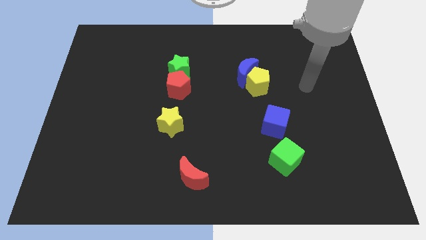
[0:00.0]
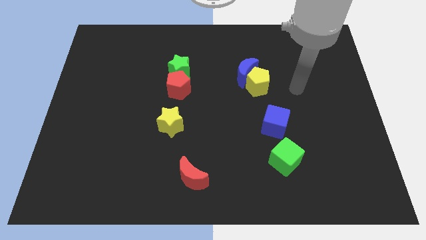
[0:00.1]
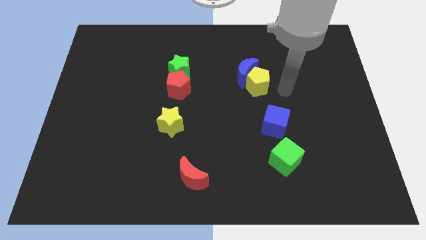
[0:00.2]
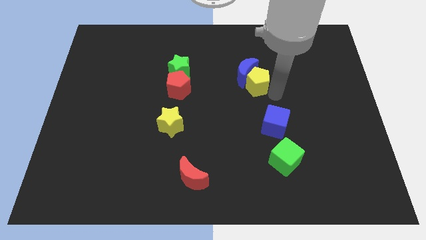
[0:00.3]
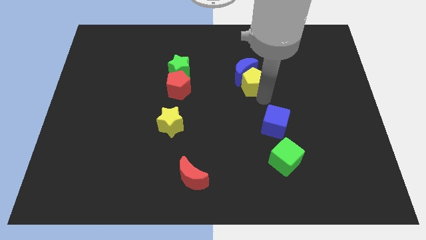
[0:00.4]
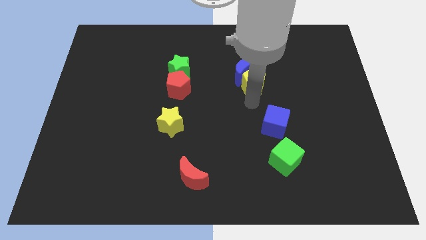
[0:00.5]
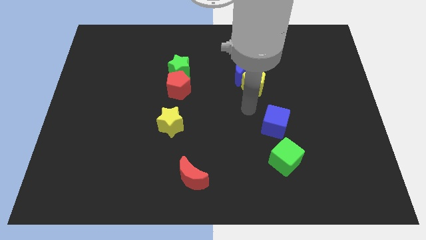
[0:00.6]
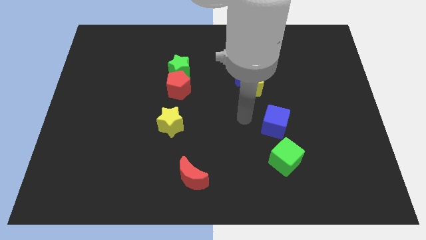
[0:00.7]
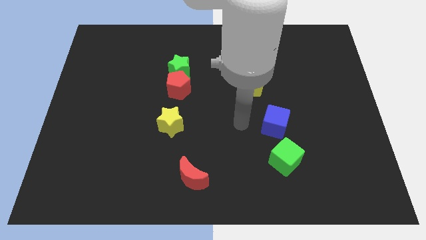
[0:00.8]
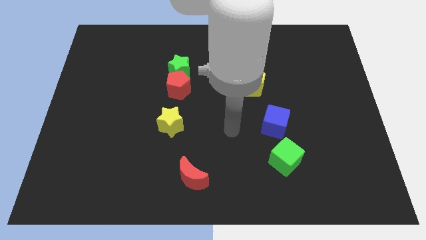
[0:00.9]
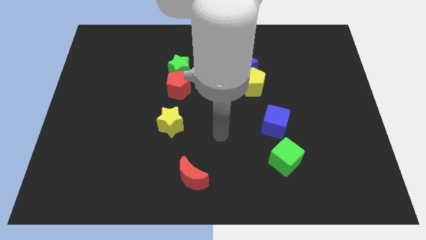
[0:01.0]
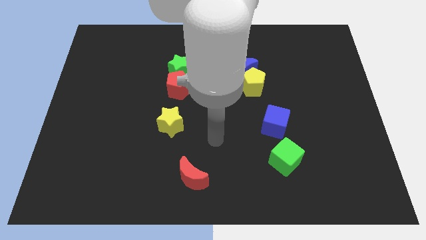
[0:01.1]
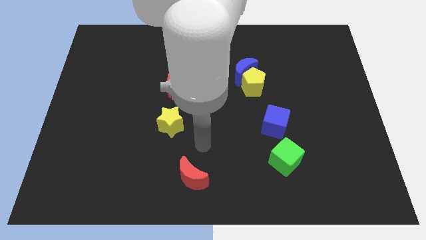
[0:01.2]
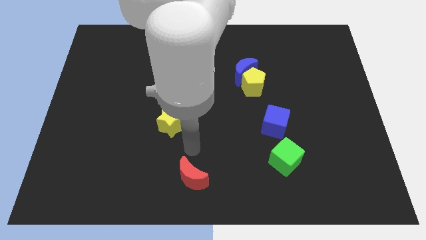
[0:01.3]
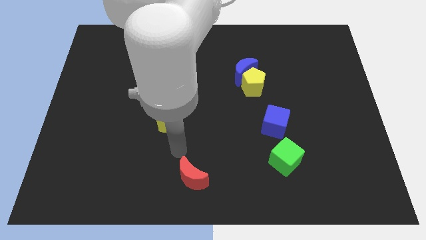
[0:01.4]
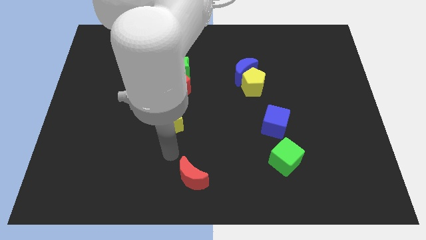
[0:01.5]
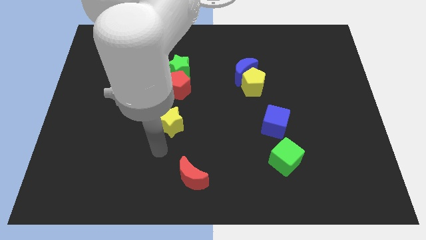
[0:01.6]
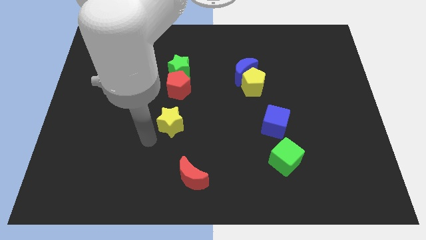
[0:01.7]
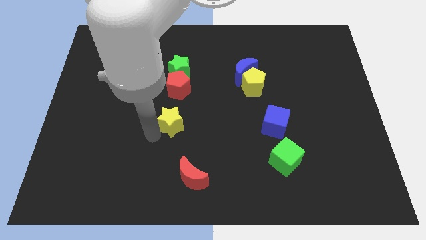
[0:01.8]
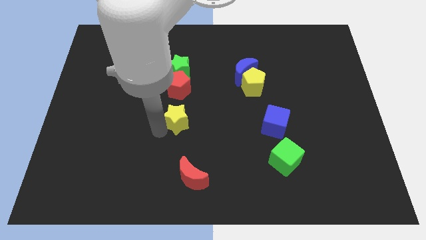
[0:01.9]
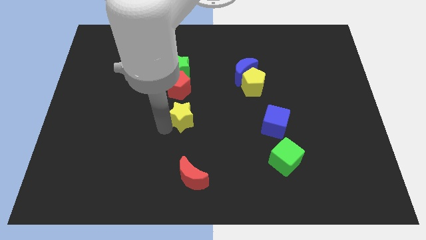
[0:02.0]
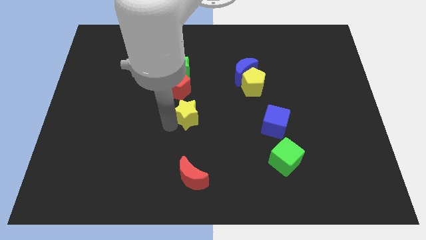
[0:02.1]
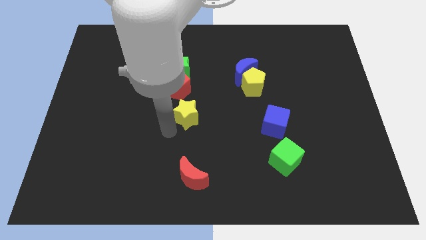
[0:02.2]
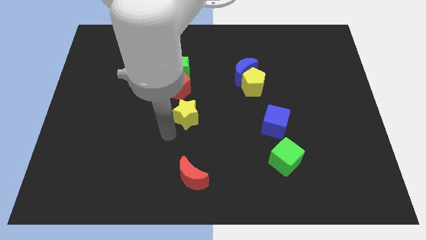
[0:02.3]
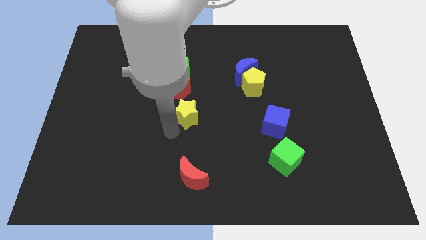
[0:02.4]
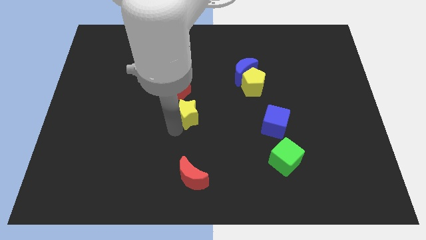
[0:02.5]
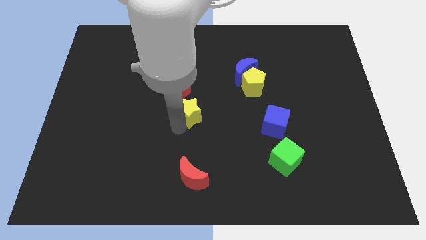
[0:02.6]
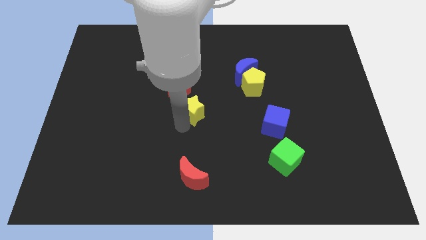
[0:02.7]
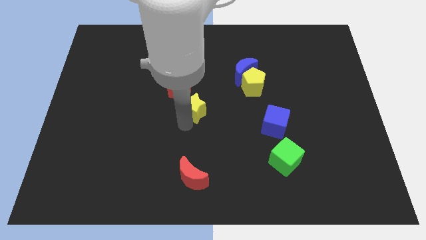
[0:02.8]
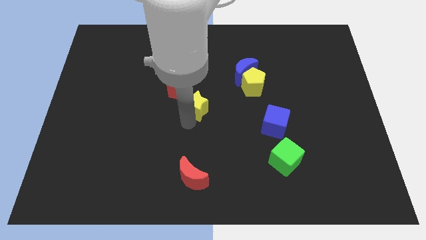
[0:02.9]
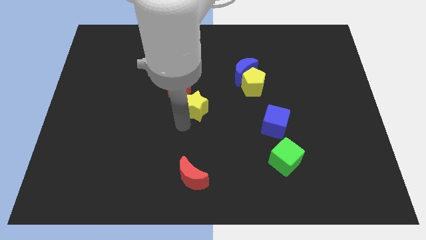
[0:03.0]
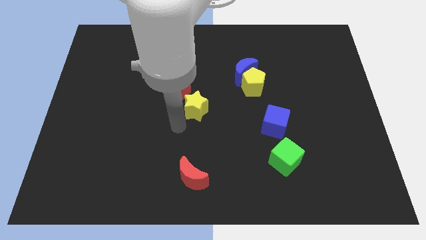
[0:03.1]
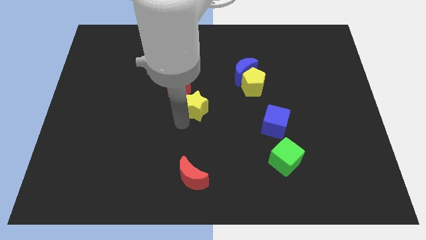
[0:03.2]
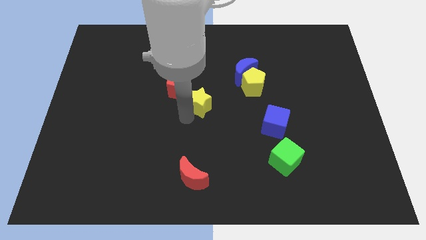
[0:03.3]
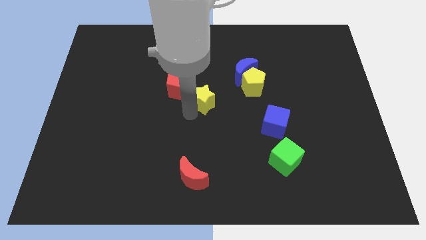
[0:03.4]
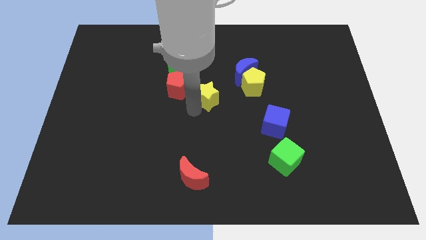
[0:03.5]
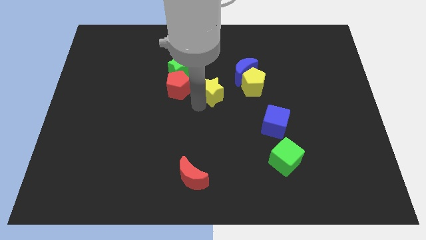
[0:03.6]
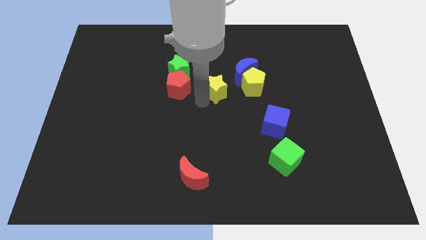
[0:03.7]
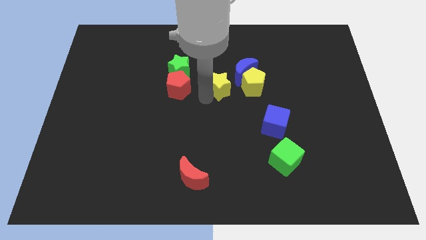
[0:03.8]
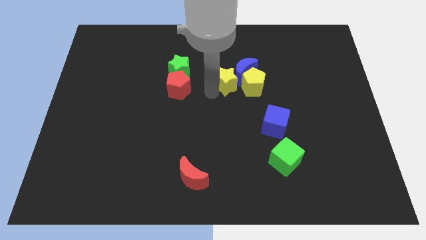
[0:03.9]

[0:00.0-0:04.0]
push the yellow star close to the blue moon

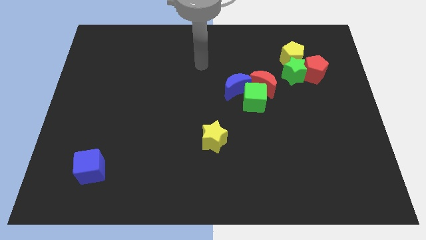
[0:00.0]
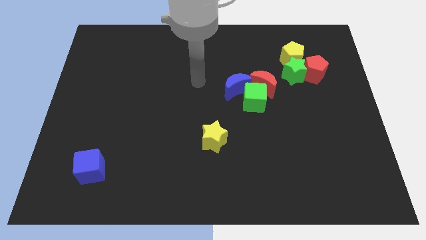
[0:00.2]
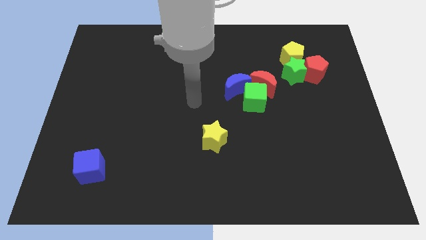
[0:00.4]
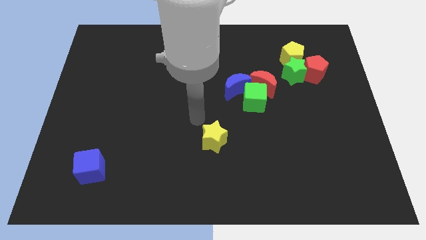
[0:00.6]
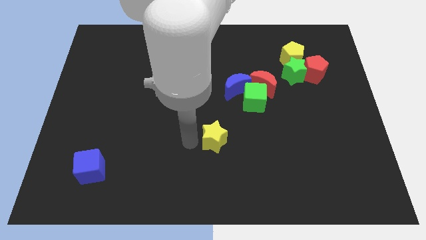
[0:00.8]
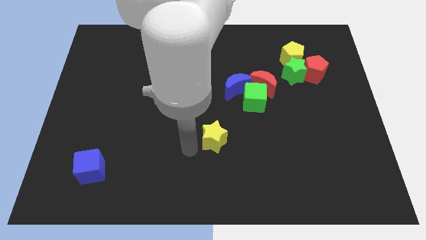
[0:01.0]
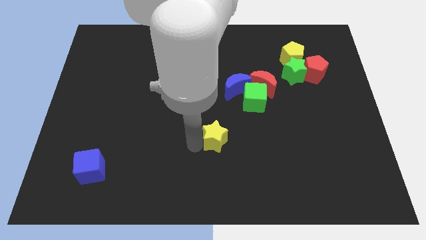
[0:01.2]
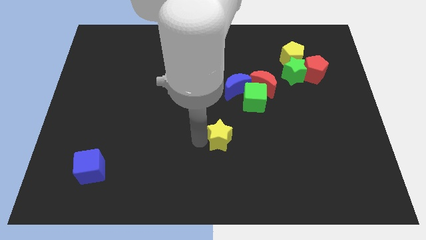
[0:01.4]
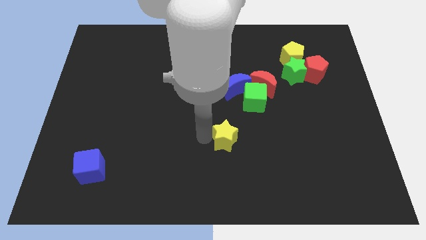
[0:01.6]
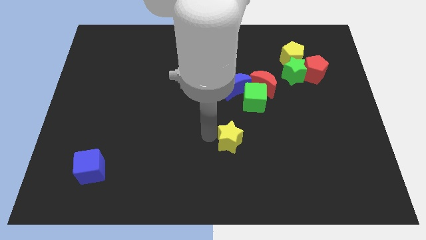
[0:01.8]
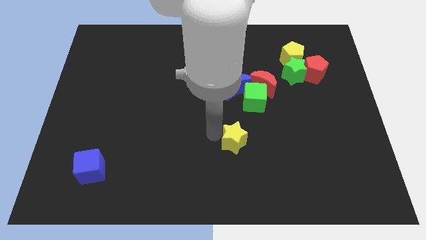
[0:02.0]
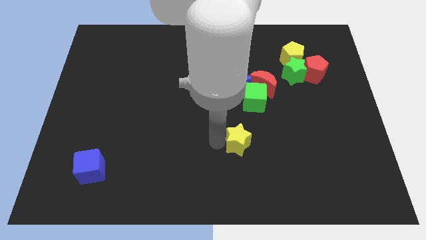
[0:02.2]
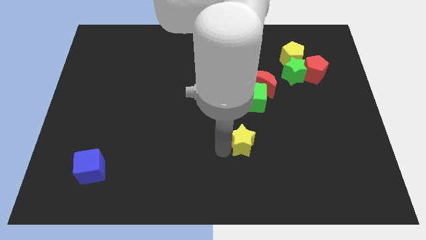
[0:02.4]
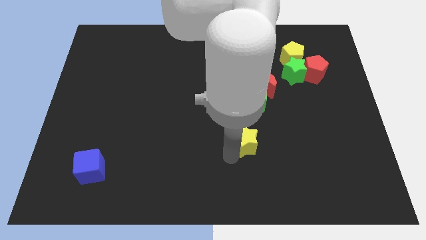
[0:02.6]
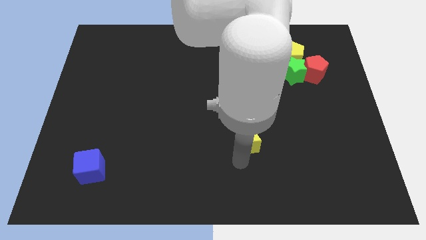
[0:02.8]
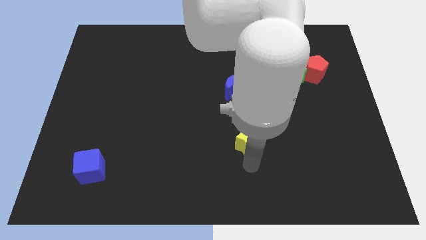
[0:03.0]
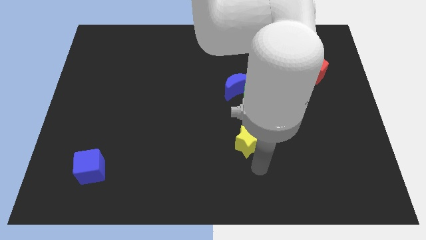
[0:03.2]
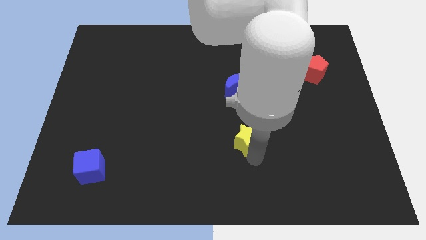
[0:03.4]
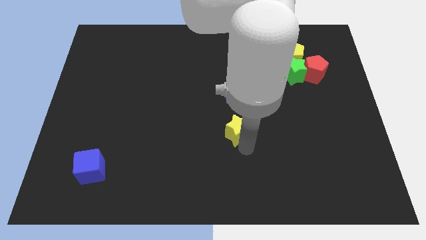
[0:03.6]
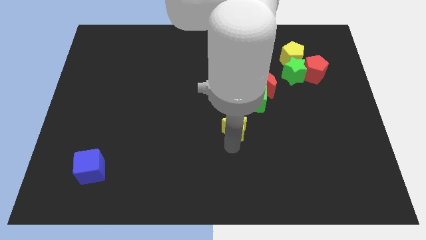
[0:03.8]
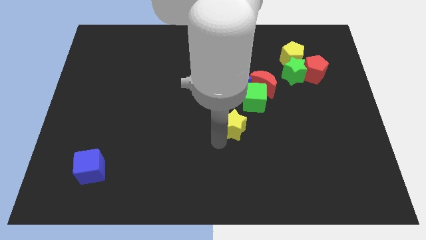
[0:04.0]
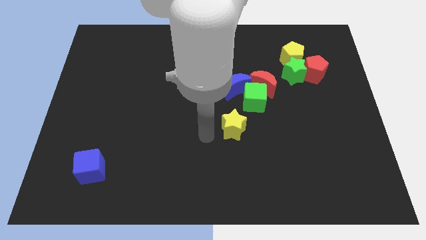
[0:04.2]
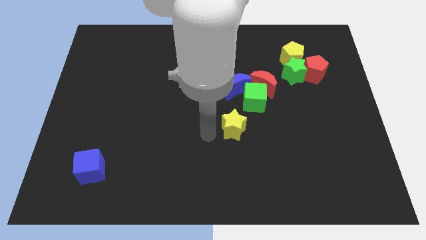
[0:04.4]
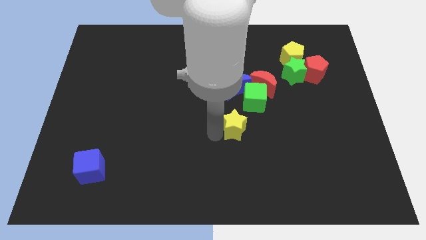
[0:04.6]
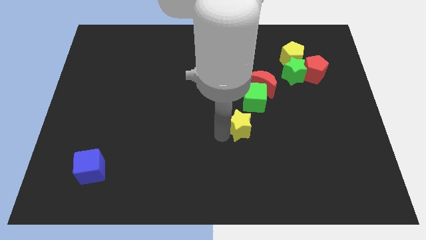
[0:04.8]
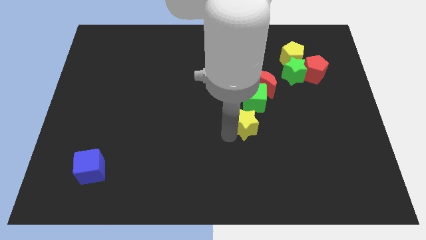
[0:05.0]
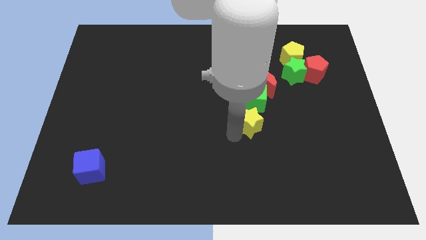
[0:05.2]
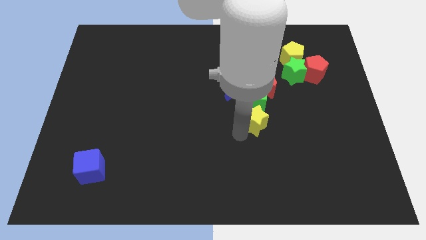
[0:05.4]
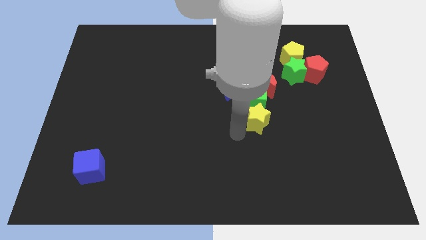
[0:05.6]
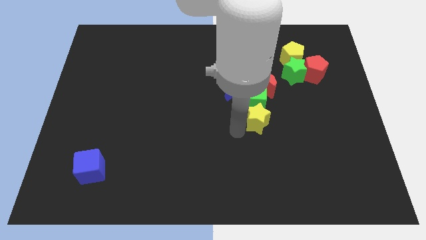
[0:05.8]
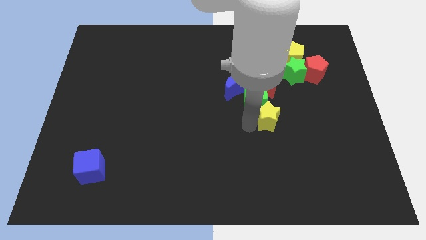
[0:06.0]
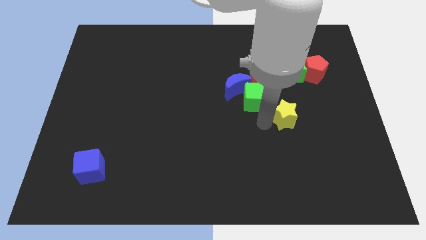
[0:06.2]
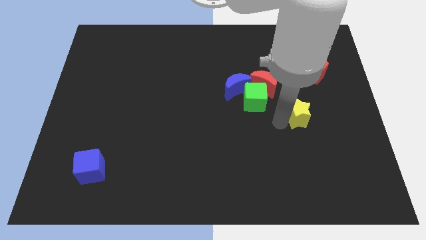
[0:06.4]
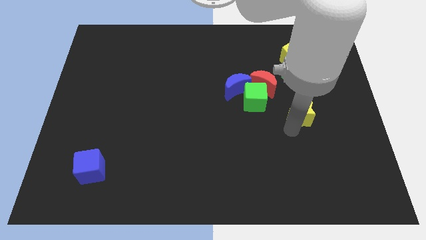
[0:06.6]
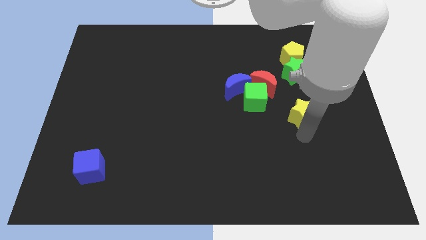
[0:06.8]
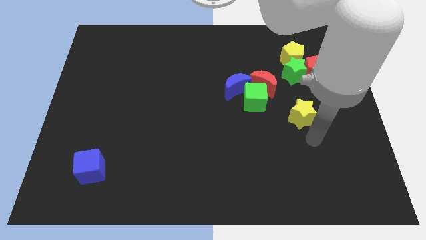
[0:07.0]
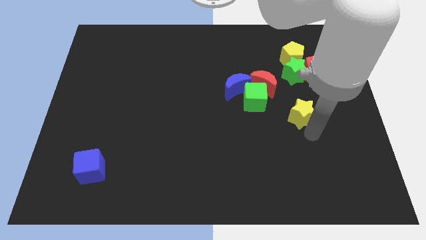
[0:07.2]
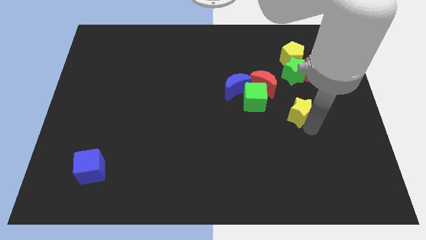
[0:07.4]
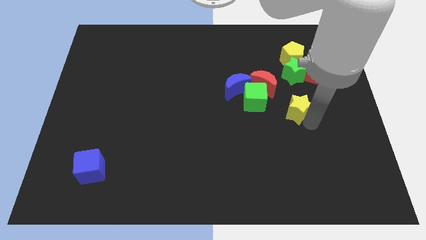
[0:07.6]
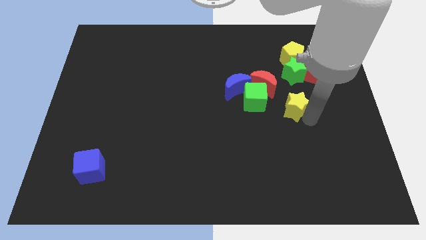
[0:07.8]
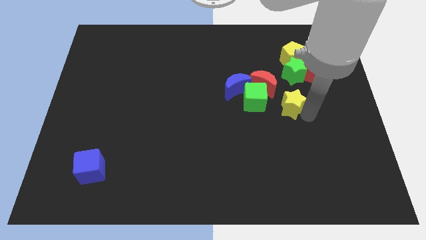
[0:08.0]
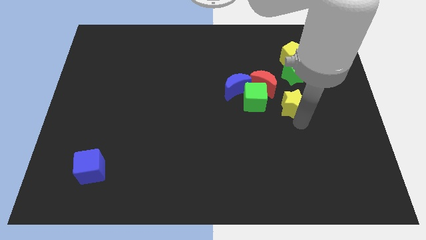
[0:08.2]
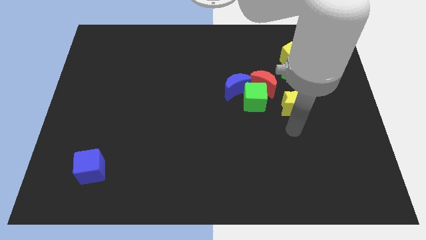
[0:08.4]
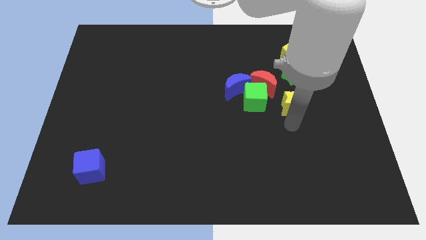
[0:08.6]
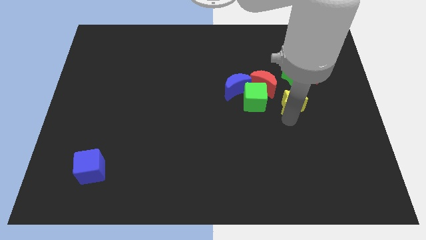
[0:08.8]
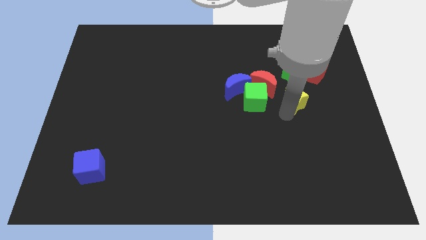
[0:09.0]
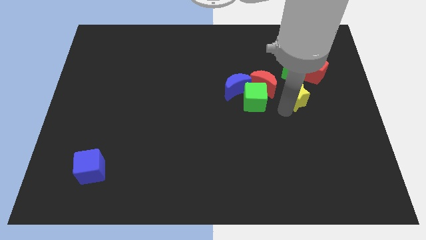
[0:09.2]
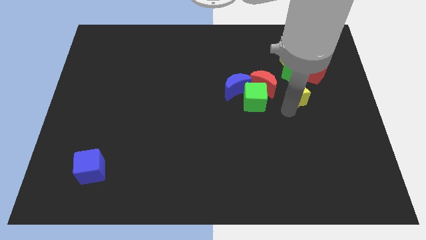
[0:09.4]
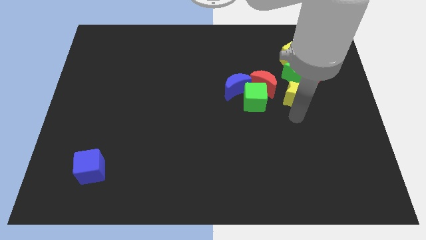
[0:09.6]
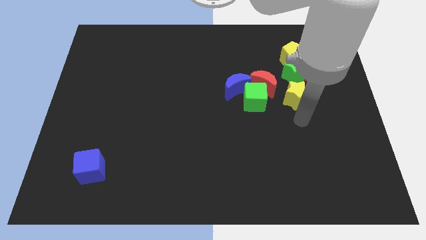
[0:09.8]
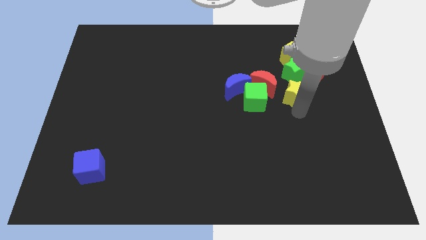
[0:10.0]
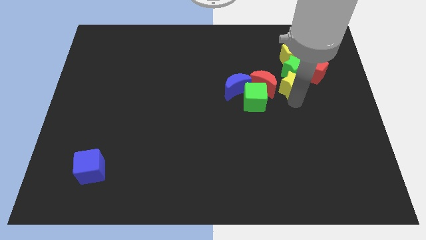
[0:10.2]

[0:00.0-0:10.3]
move the yellow star close to the green star
